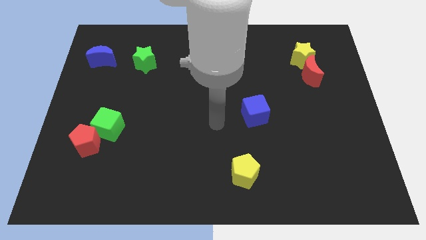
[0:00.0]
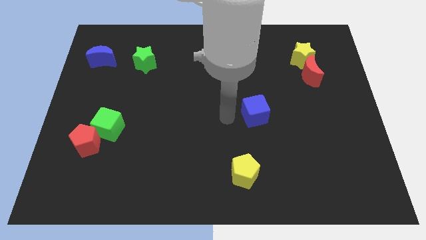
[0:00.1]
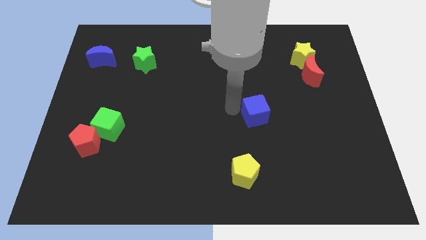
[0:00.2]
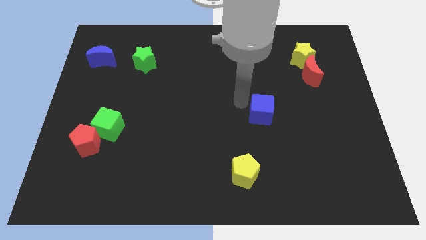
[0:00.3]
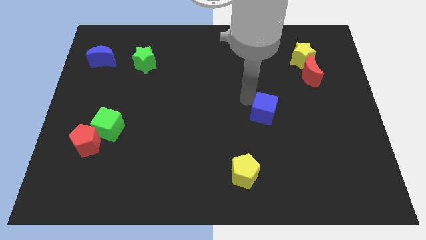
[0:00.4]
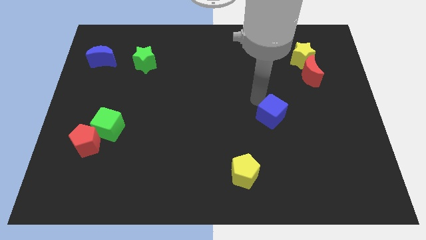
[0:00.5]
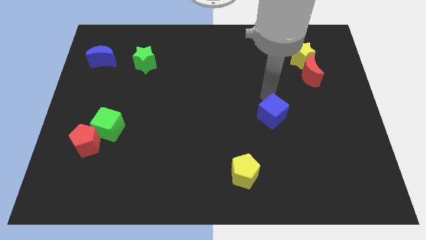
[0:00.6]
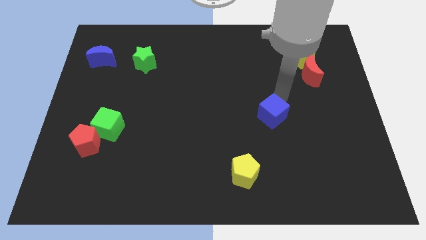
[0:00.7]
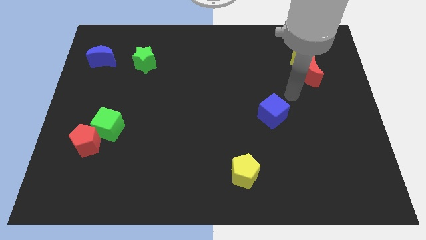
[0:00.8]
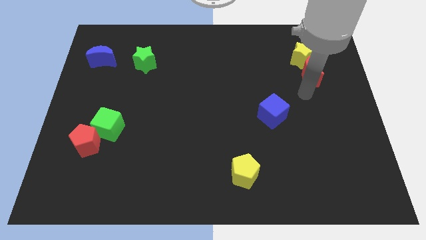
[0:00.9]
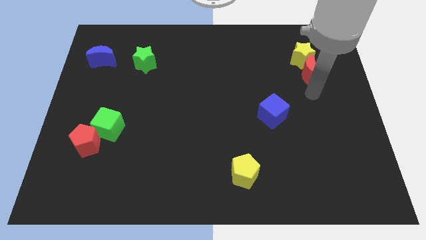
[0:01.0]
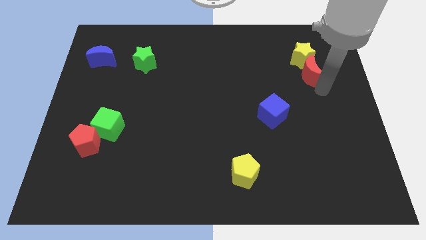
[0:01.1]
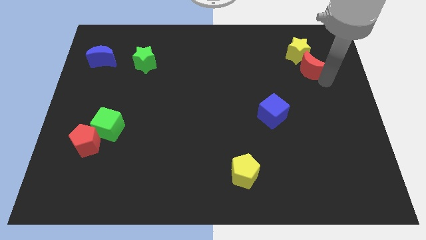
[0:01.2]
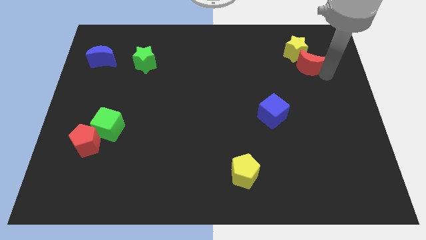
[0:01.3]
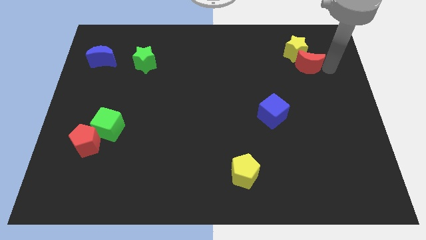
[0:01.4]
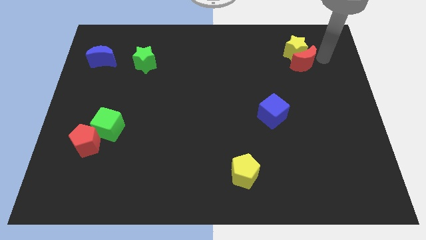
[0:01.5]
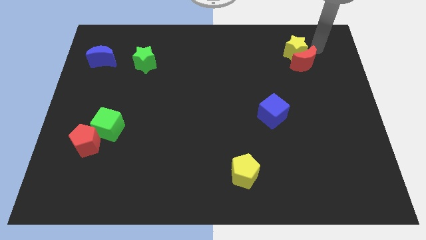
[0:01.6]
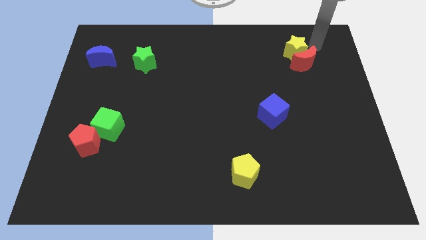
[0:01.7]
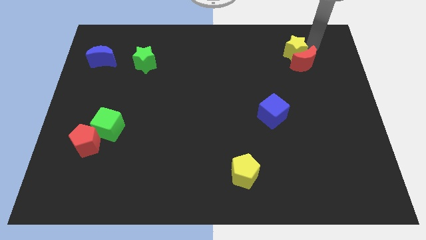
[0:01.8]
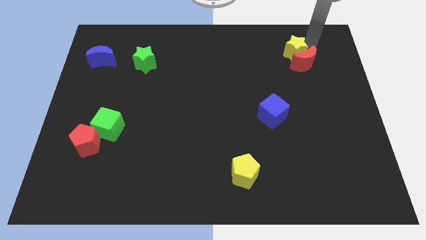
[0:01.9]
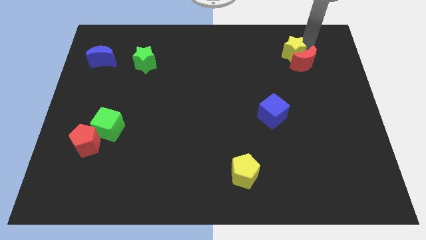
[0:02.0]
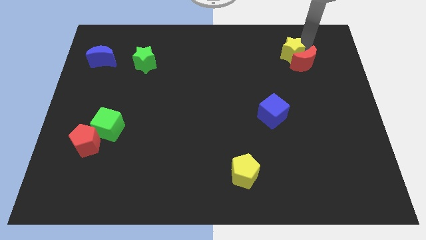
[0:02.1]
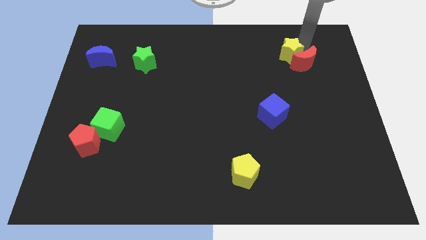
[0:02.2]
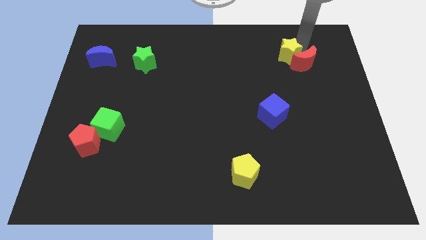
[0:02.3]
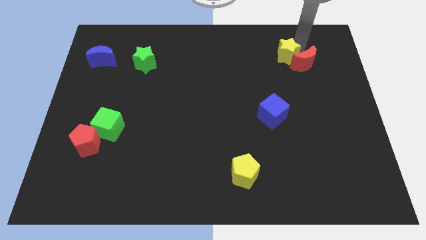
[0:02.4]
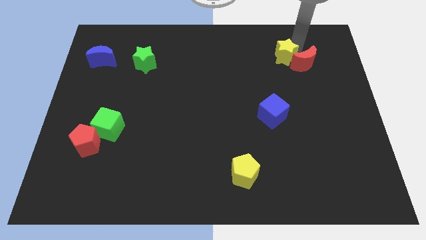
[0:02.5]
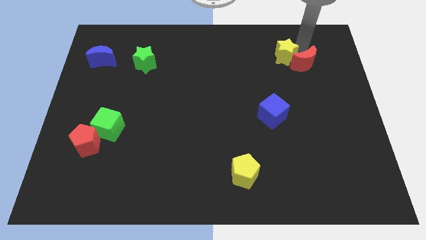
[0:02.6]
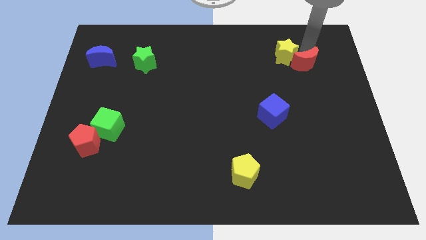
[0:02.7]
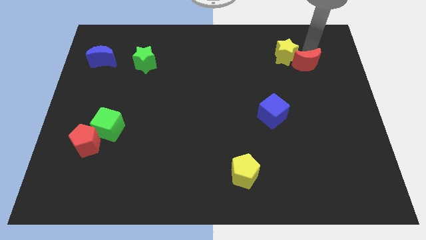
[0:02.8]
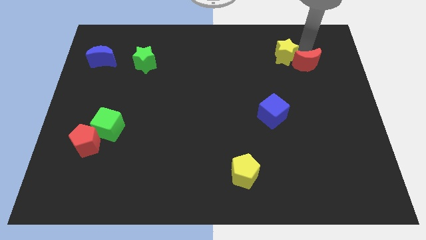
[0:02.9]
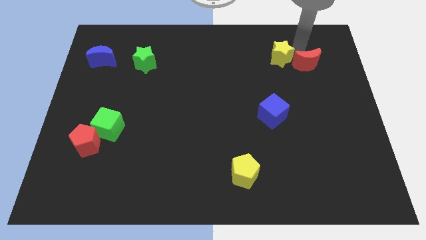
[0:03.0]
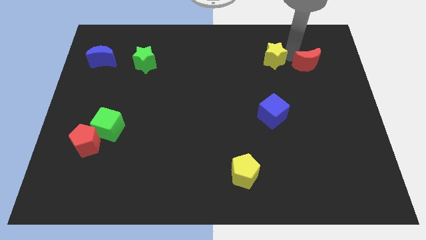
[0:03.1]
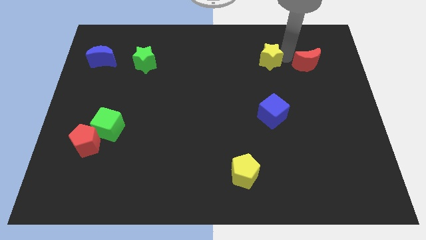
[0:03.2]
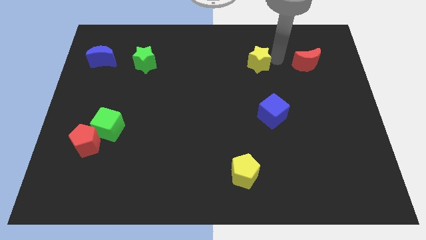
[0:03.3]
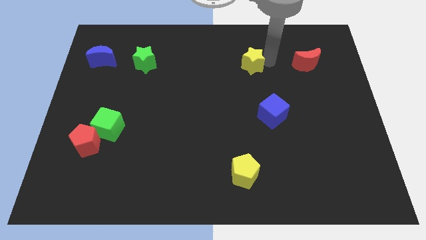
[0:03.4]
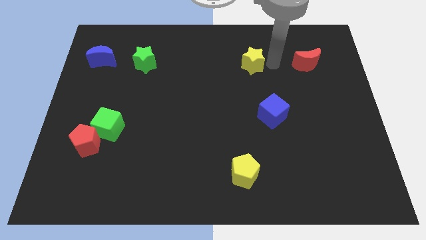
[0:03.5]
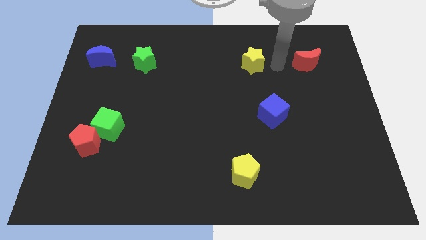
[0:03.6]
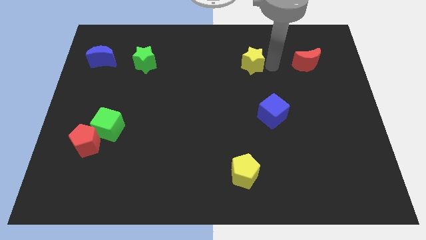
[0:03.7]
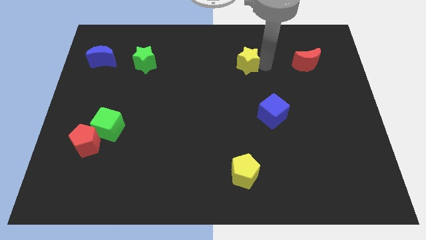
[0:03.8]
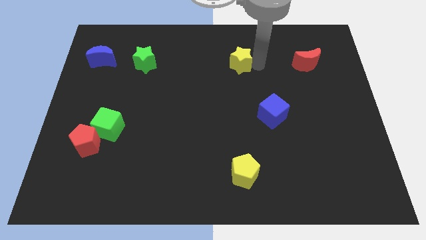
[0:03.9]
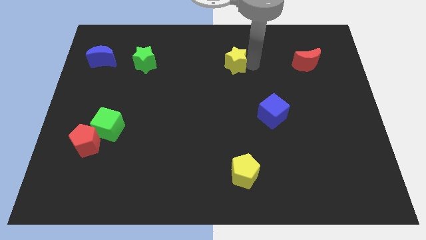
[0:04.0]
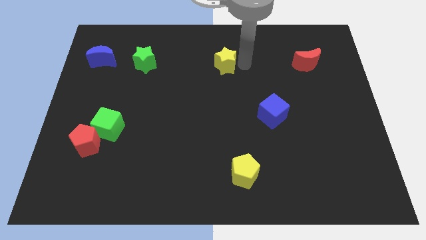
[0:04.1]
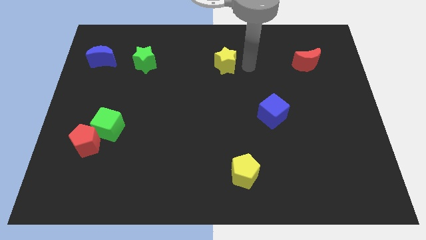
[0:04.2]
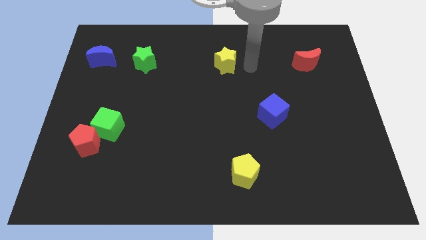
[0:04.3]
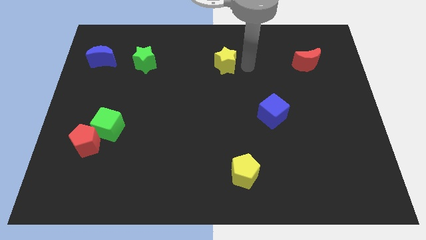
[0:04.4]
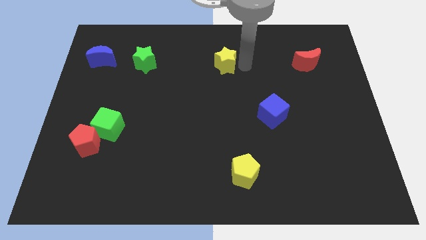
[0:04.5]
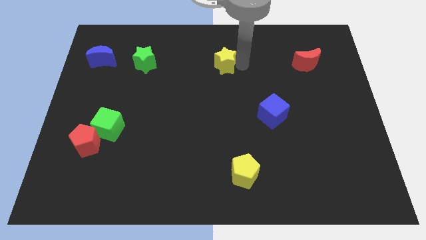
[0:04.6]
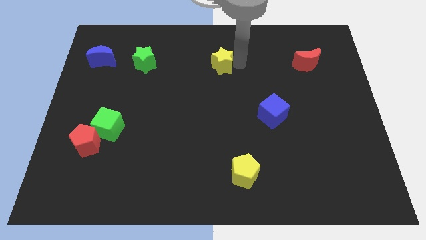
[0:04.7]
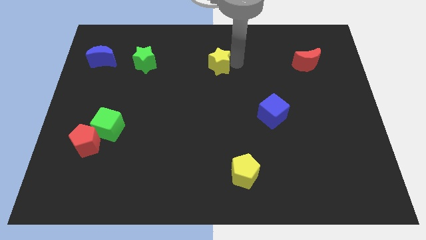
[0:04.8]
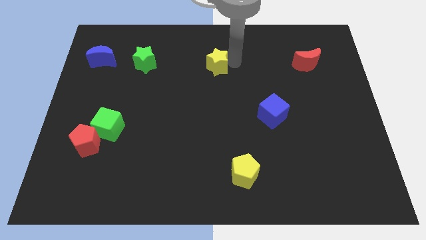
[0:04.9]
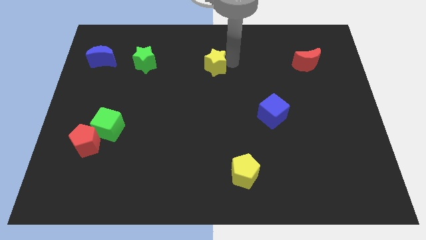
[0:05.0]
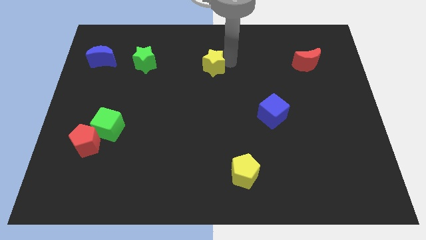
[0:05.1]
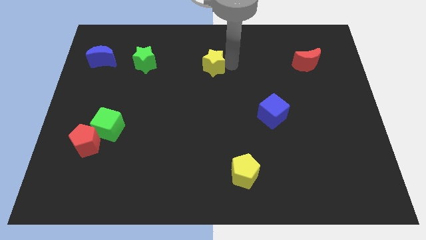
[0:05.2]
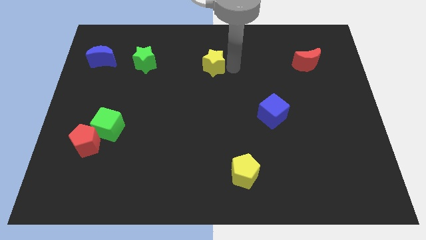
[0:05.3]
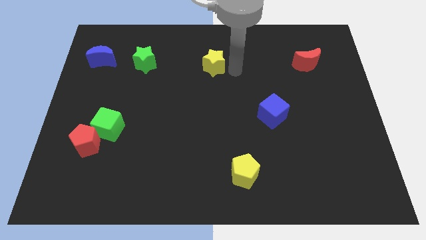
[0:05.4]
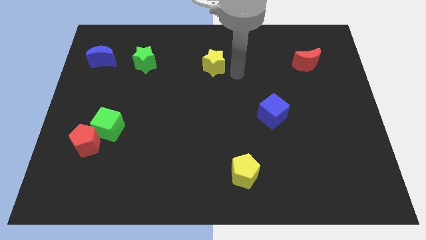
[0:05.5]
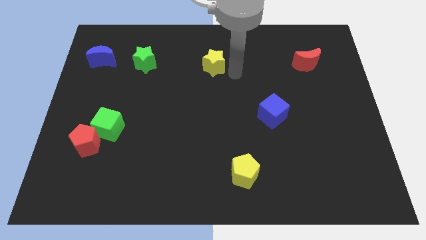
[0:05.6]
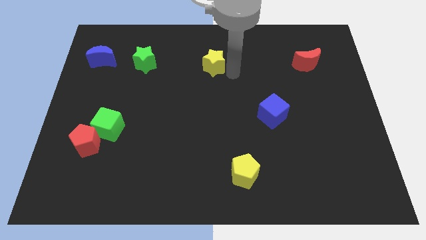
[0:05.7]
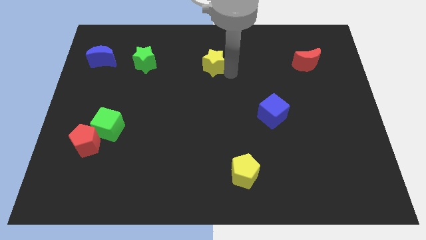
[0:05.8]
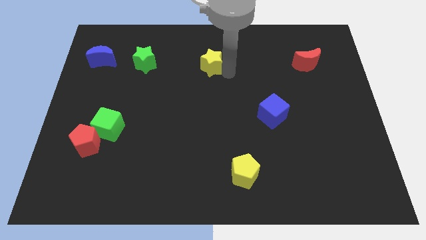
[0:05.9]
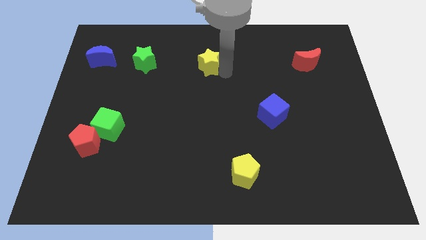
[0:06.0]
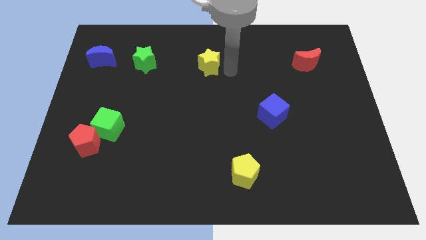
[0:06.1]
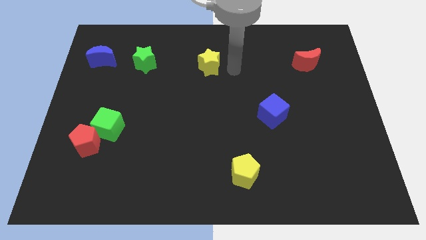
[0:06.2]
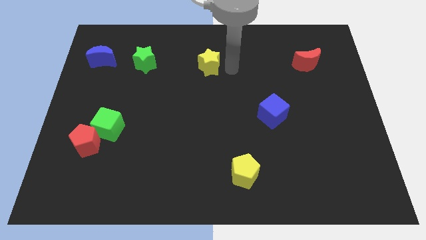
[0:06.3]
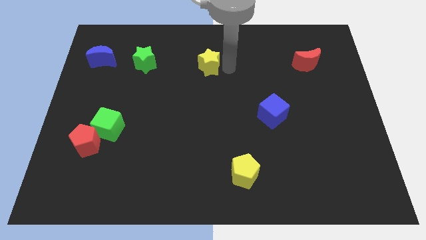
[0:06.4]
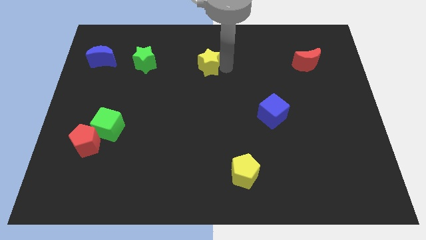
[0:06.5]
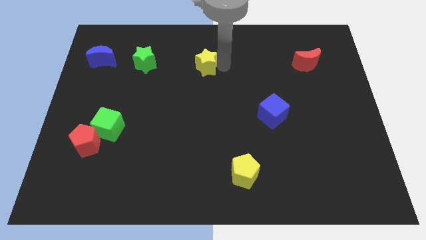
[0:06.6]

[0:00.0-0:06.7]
push the yellow star to the right of the green star
